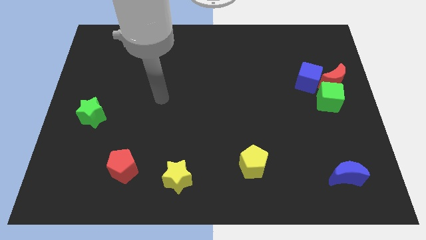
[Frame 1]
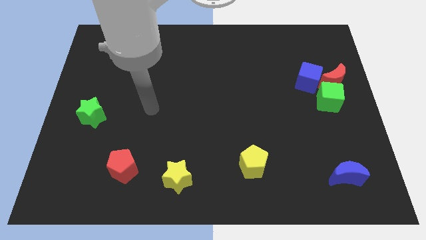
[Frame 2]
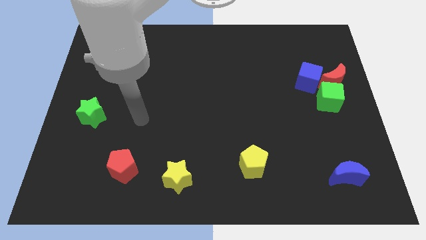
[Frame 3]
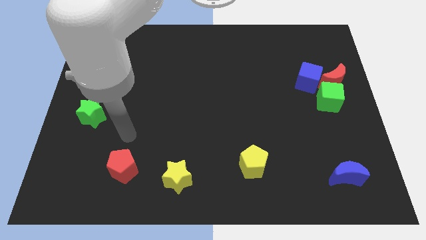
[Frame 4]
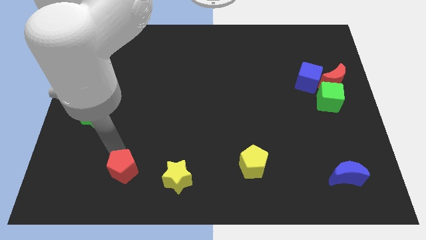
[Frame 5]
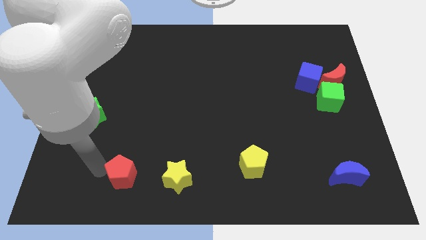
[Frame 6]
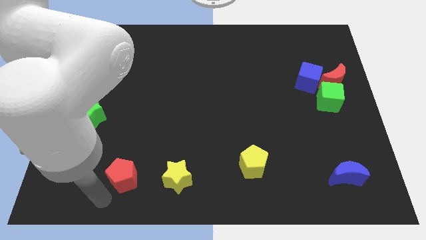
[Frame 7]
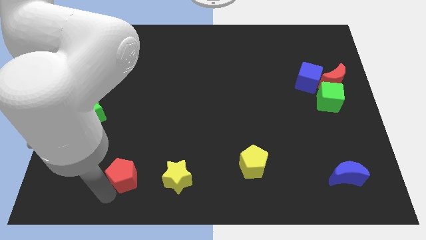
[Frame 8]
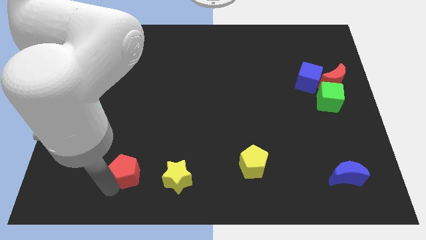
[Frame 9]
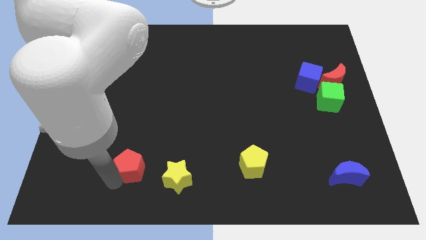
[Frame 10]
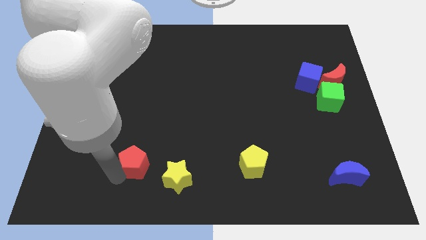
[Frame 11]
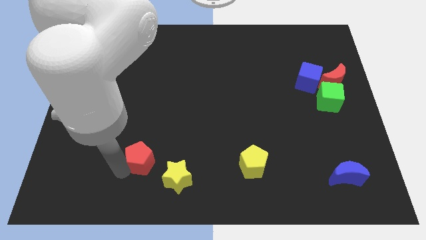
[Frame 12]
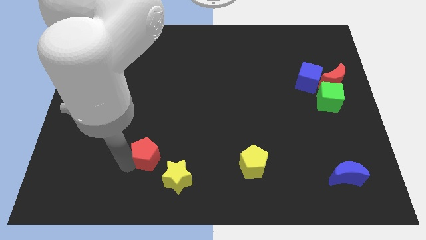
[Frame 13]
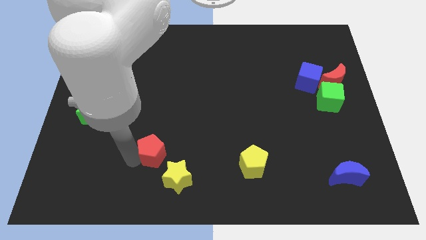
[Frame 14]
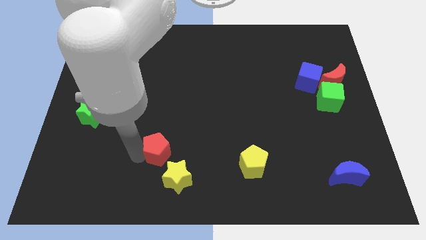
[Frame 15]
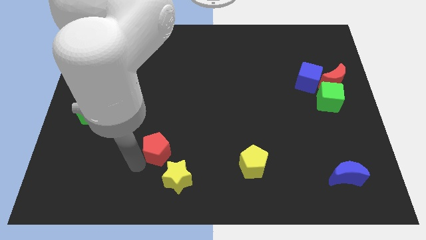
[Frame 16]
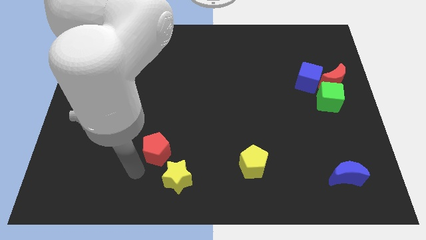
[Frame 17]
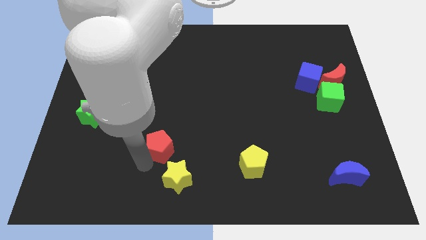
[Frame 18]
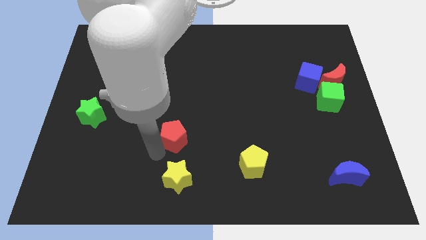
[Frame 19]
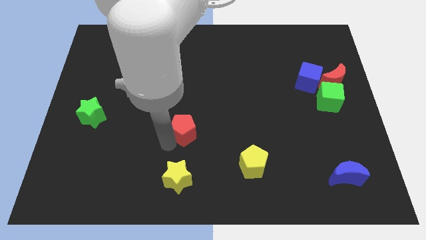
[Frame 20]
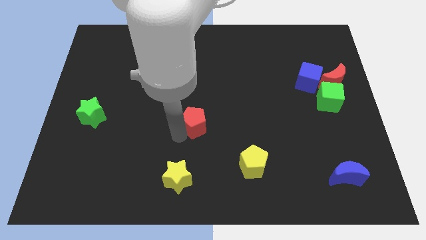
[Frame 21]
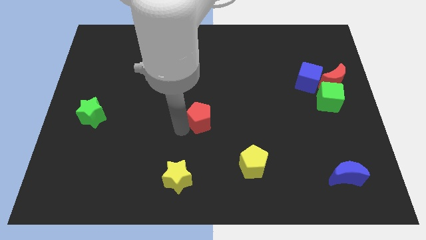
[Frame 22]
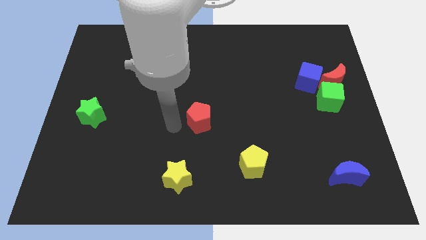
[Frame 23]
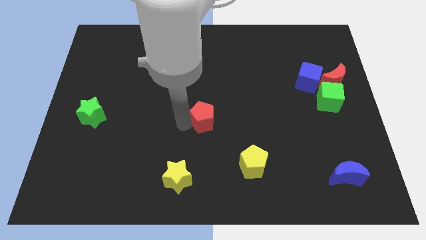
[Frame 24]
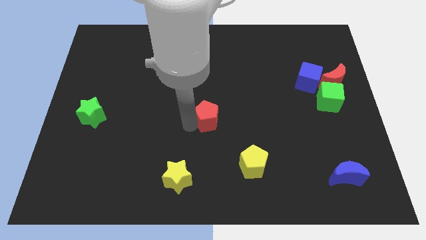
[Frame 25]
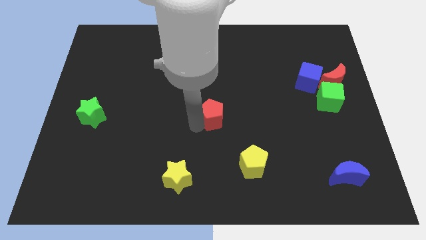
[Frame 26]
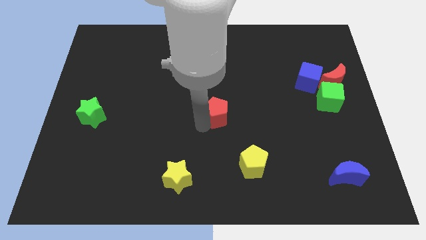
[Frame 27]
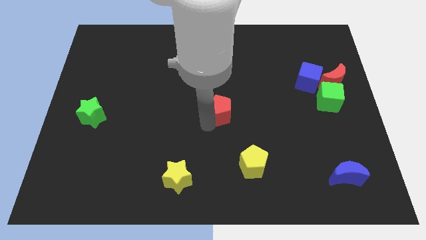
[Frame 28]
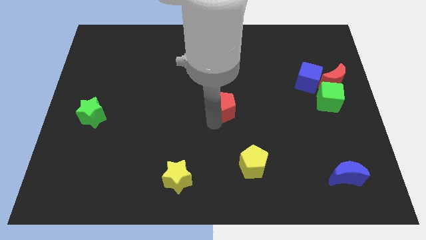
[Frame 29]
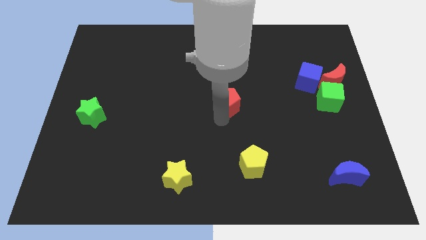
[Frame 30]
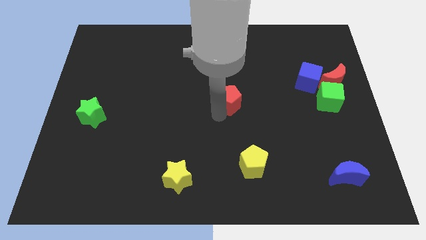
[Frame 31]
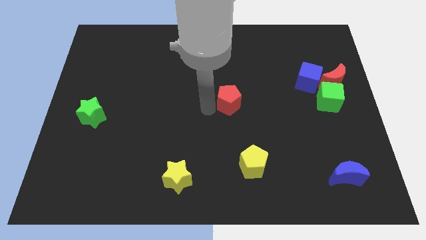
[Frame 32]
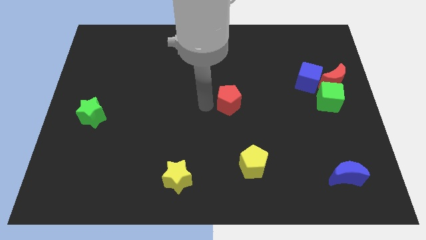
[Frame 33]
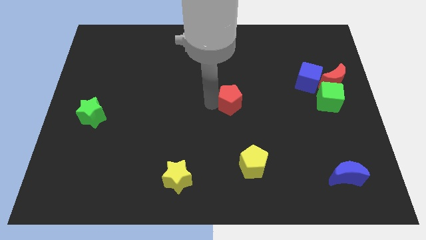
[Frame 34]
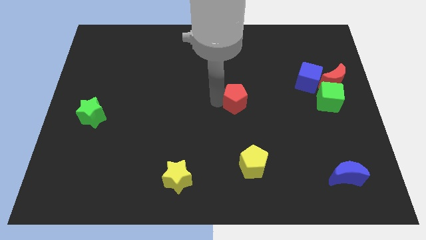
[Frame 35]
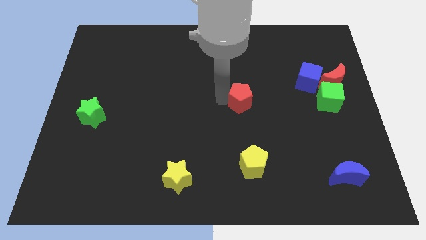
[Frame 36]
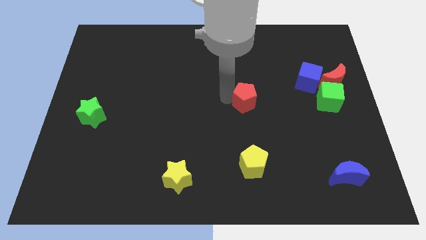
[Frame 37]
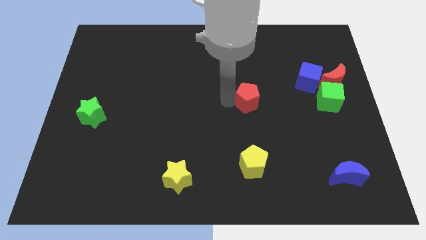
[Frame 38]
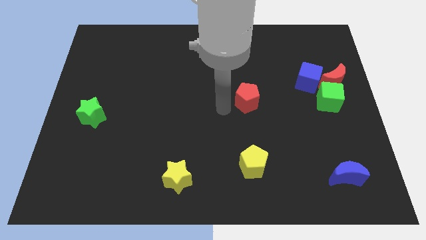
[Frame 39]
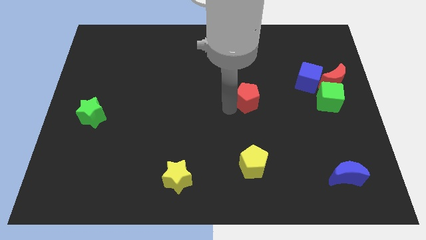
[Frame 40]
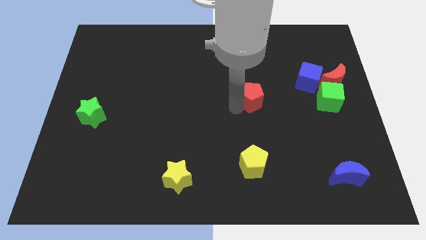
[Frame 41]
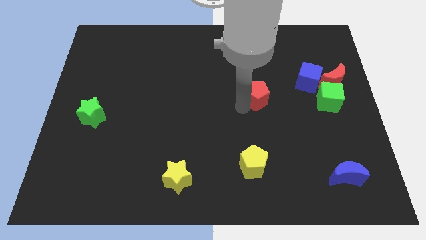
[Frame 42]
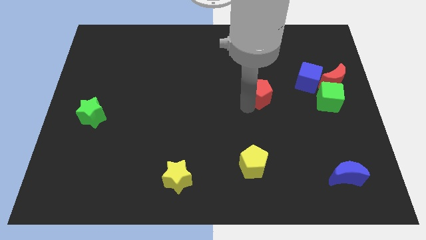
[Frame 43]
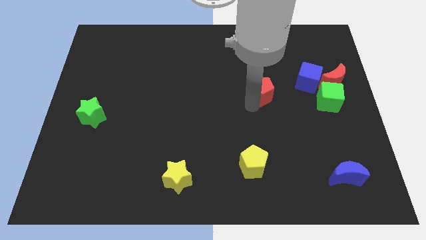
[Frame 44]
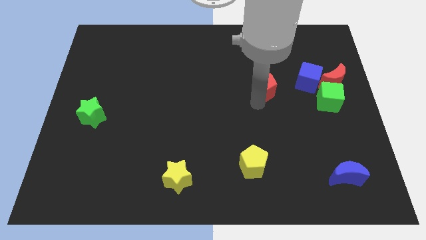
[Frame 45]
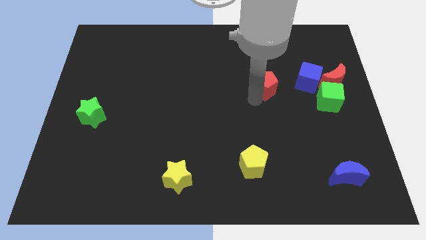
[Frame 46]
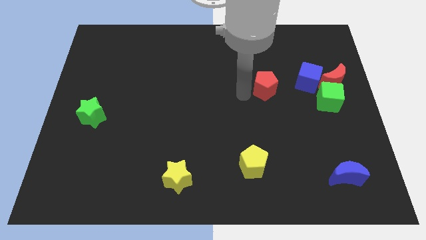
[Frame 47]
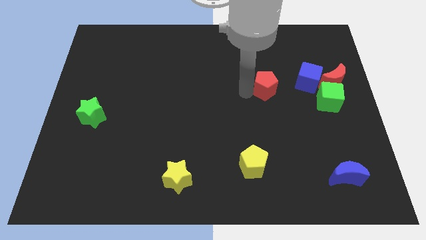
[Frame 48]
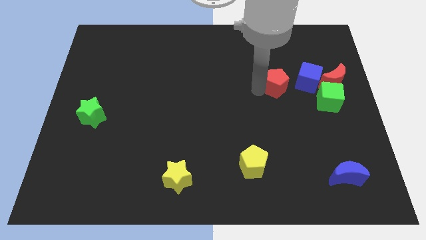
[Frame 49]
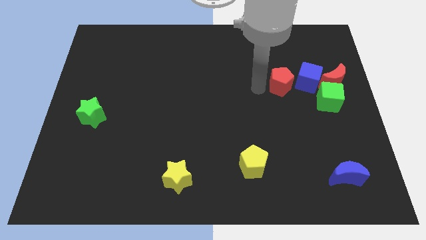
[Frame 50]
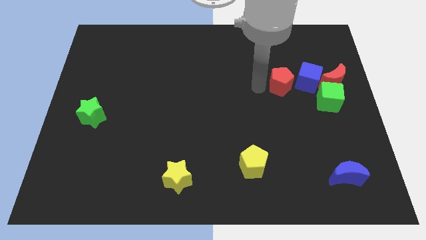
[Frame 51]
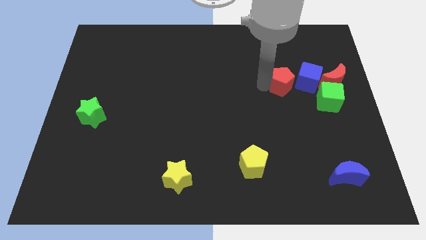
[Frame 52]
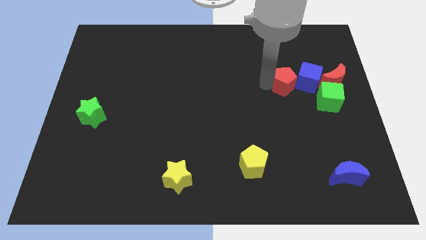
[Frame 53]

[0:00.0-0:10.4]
put the red pentagon to the blue cube

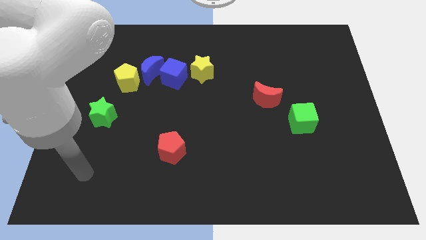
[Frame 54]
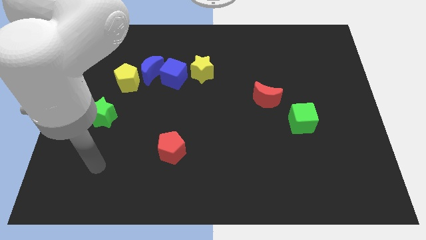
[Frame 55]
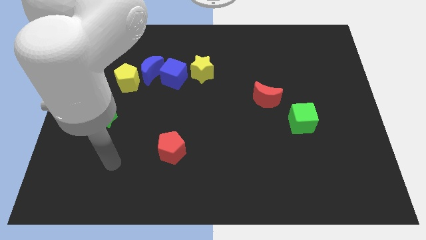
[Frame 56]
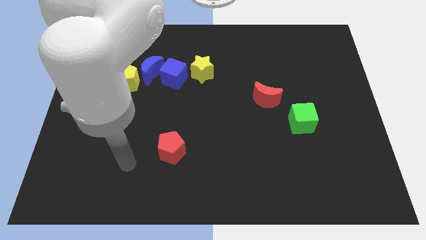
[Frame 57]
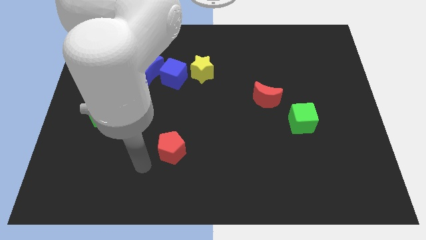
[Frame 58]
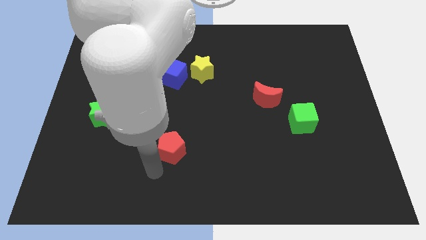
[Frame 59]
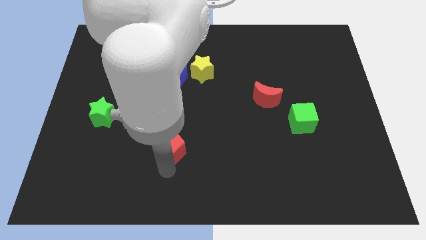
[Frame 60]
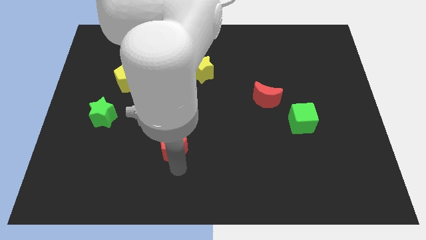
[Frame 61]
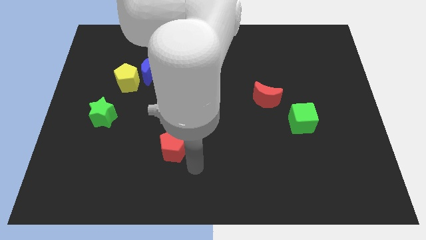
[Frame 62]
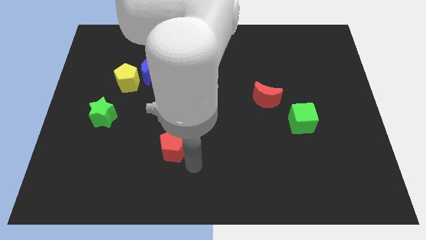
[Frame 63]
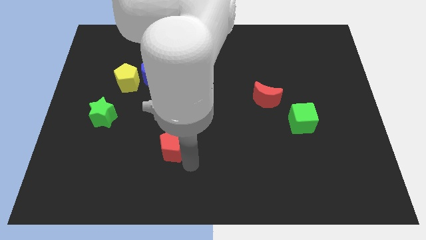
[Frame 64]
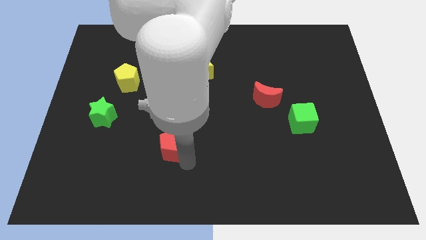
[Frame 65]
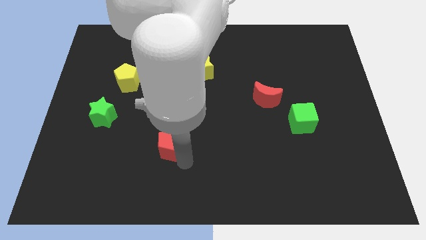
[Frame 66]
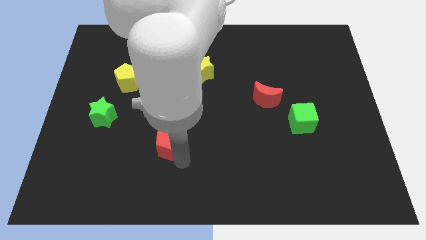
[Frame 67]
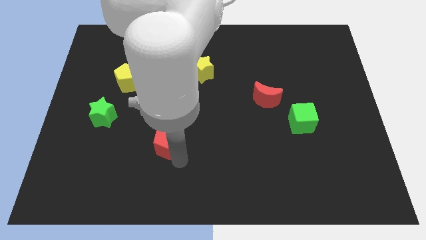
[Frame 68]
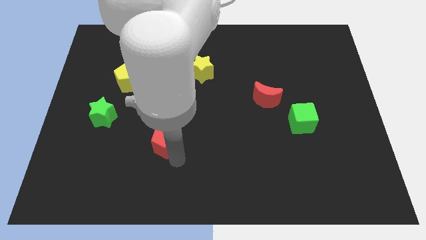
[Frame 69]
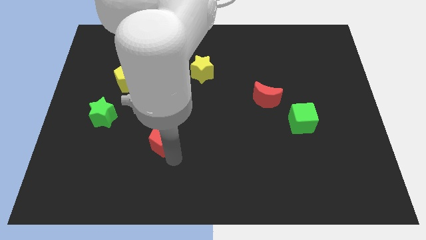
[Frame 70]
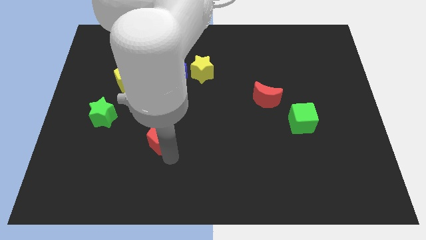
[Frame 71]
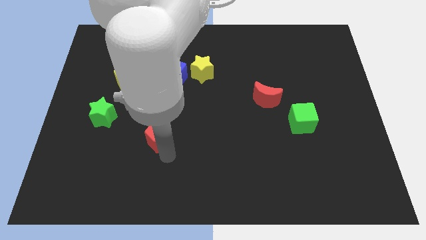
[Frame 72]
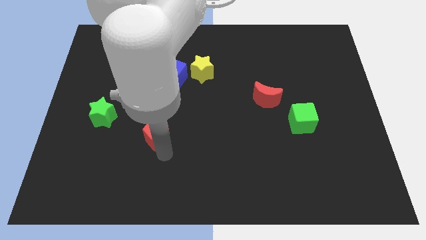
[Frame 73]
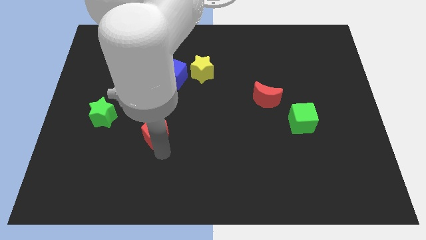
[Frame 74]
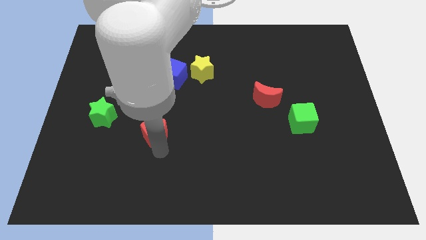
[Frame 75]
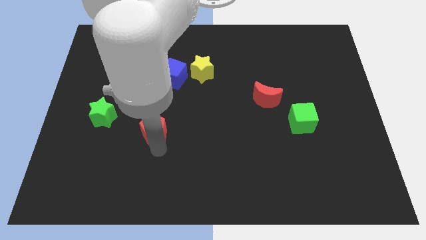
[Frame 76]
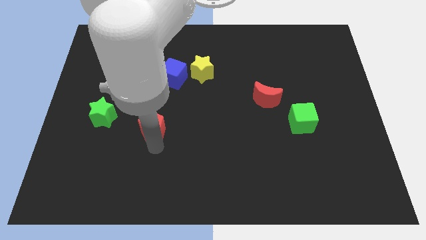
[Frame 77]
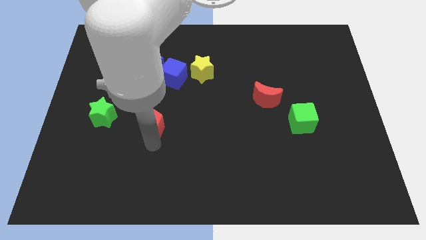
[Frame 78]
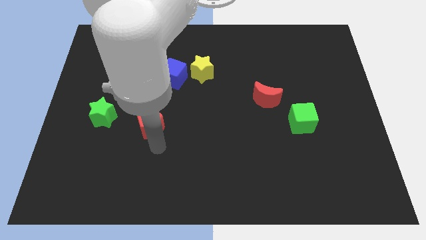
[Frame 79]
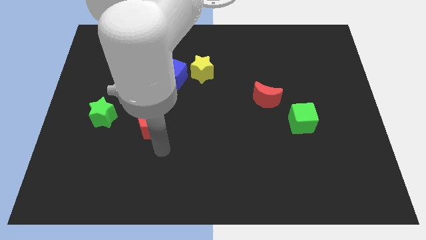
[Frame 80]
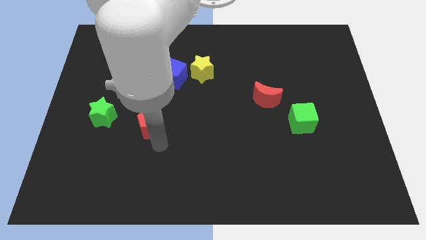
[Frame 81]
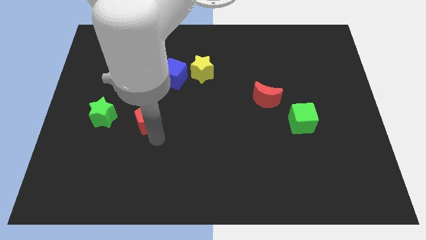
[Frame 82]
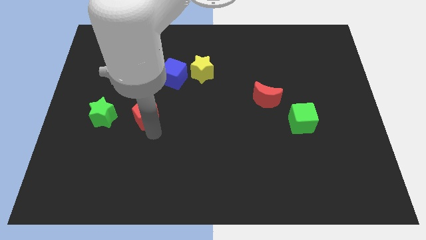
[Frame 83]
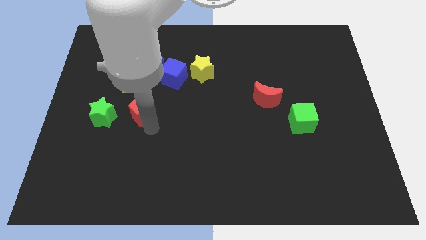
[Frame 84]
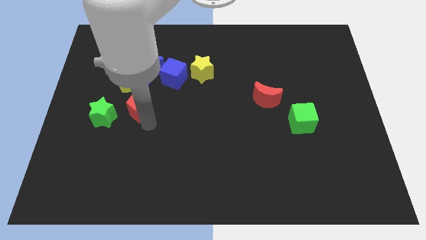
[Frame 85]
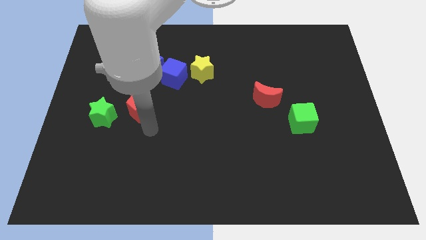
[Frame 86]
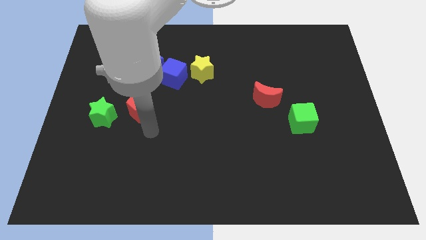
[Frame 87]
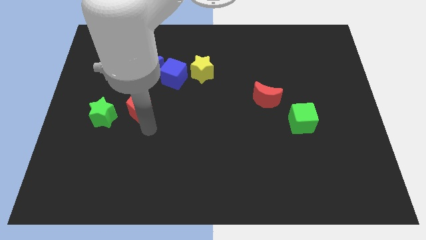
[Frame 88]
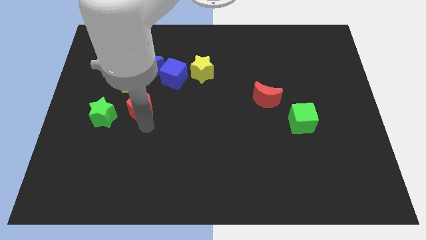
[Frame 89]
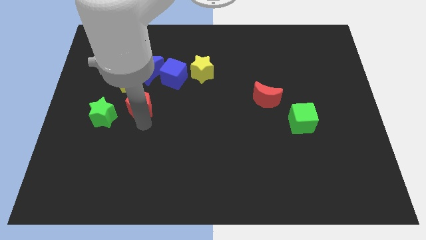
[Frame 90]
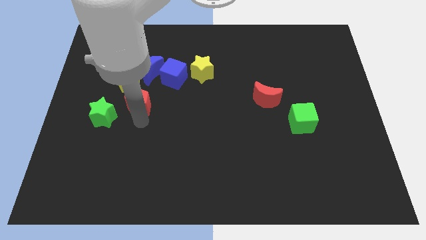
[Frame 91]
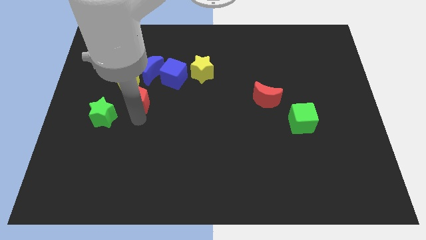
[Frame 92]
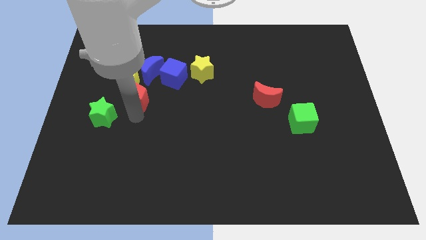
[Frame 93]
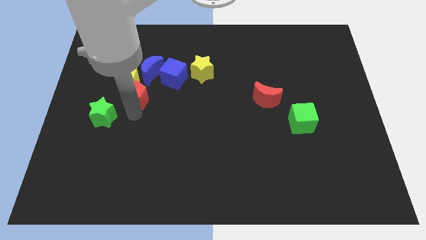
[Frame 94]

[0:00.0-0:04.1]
slide the red pentagon towards the yellow pentagon
